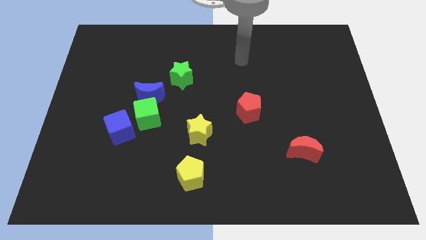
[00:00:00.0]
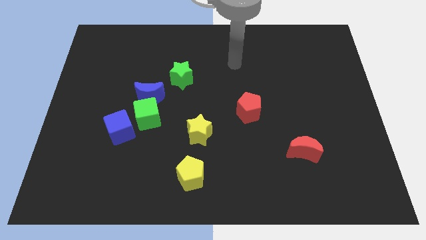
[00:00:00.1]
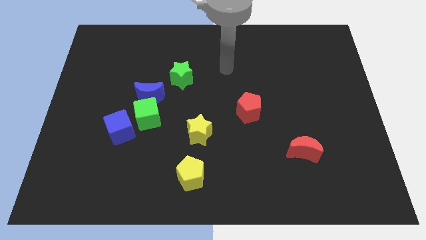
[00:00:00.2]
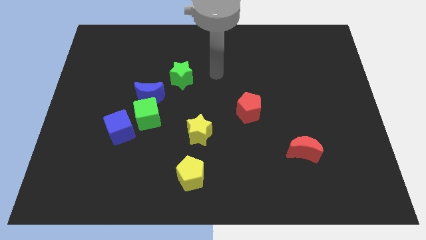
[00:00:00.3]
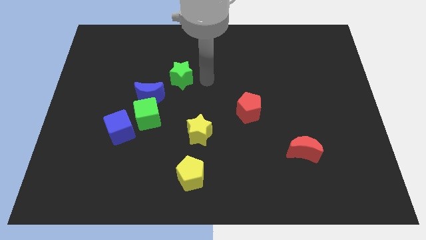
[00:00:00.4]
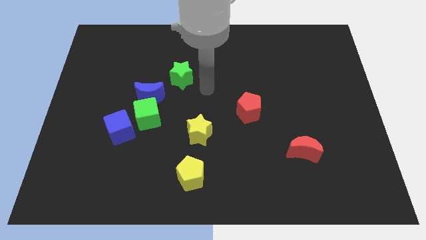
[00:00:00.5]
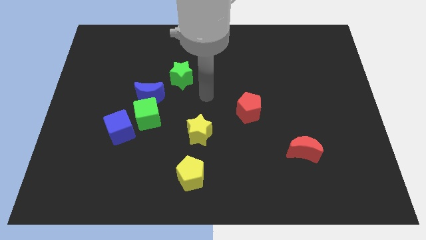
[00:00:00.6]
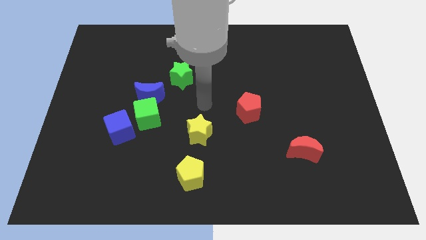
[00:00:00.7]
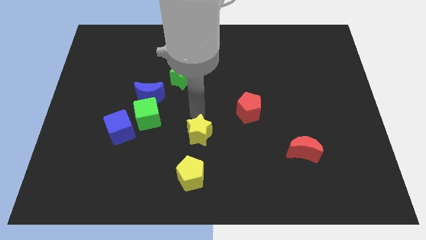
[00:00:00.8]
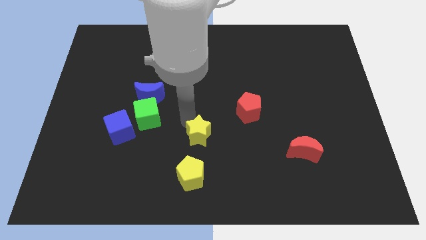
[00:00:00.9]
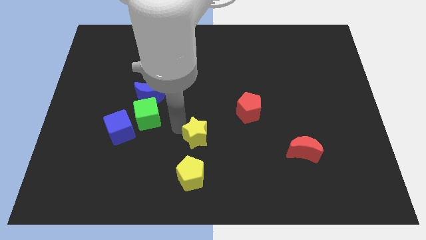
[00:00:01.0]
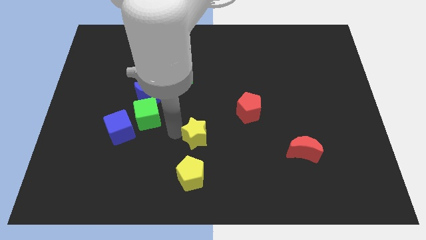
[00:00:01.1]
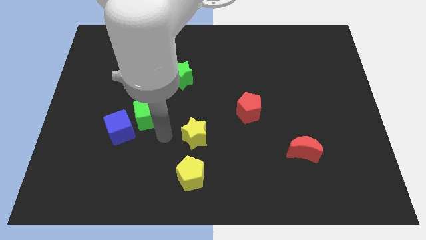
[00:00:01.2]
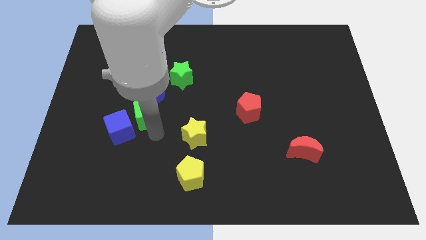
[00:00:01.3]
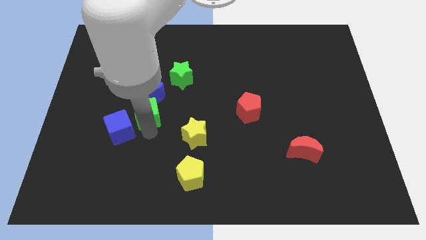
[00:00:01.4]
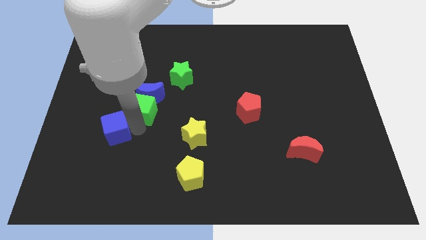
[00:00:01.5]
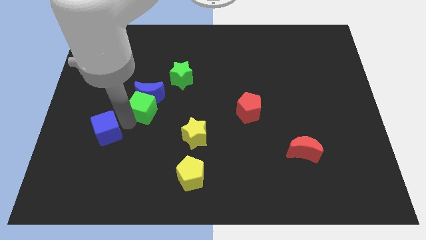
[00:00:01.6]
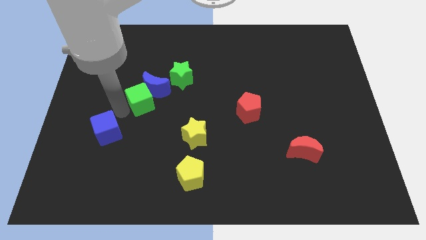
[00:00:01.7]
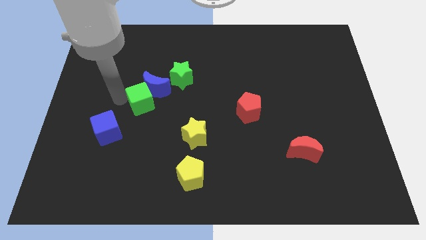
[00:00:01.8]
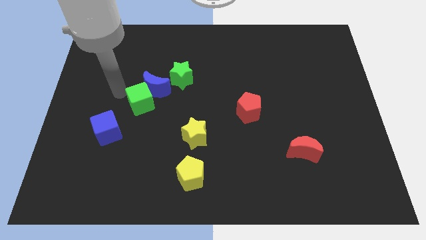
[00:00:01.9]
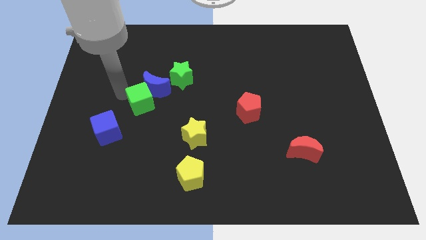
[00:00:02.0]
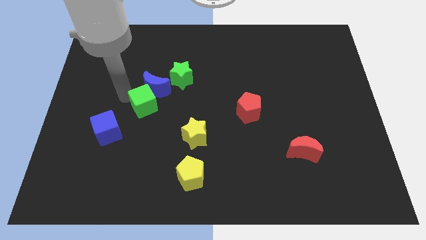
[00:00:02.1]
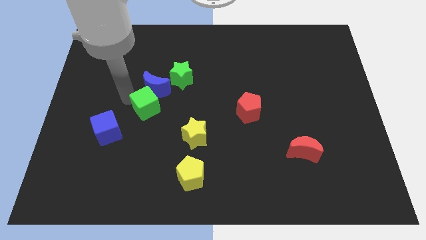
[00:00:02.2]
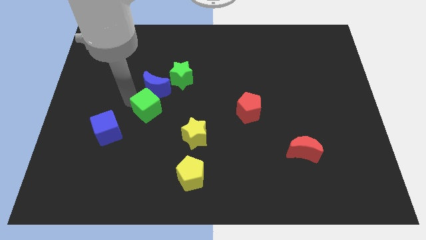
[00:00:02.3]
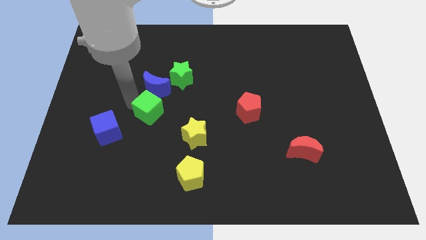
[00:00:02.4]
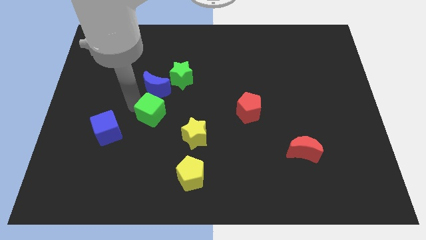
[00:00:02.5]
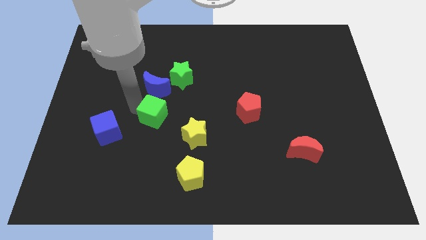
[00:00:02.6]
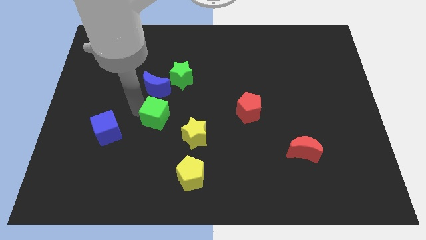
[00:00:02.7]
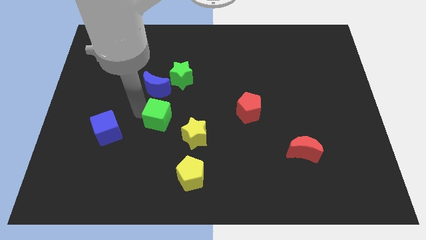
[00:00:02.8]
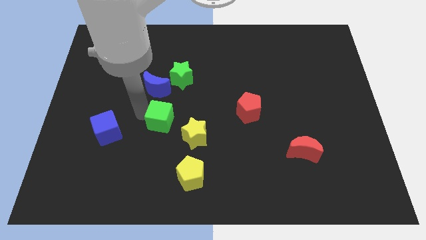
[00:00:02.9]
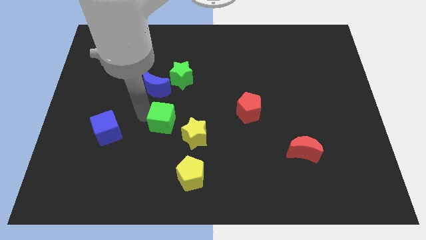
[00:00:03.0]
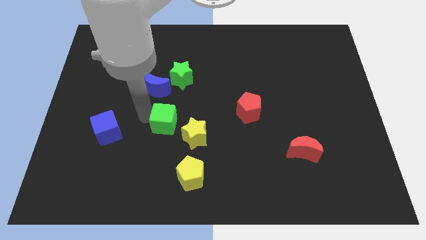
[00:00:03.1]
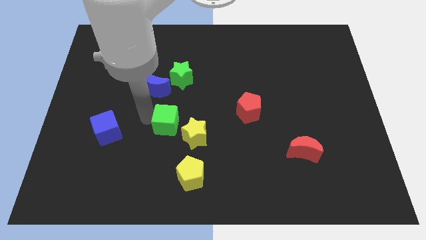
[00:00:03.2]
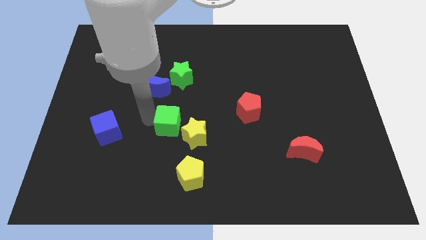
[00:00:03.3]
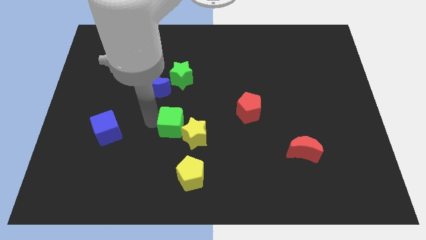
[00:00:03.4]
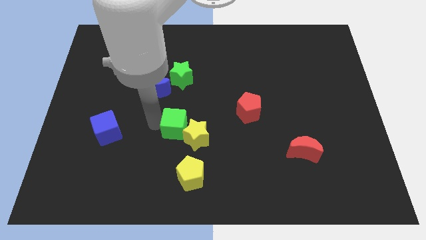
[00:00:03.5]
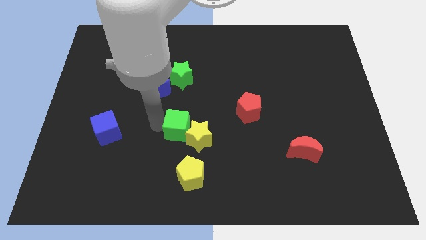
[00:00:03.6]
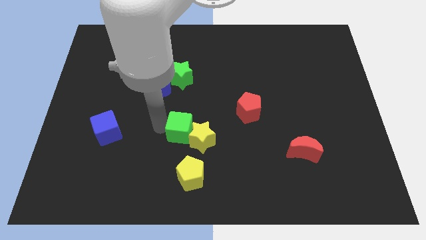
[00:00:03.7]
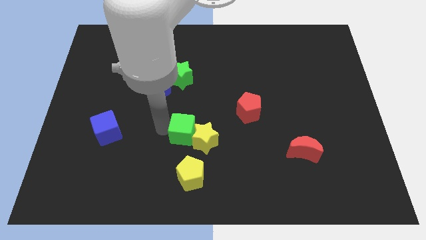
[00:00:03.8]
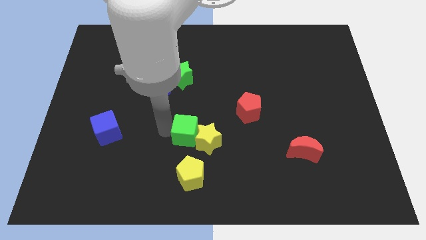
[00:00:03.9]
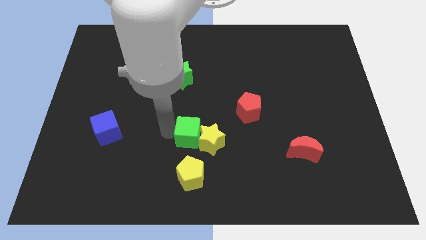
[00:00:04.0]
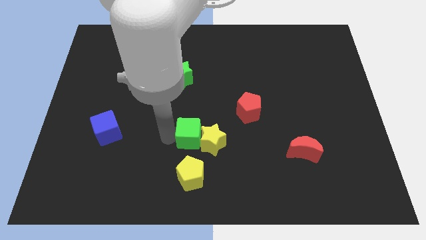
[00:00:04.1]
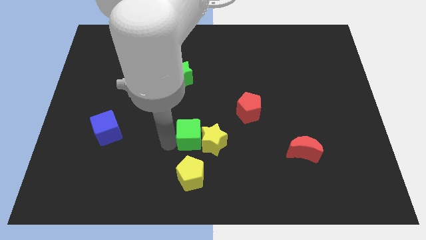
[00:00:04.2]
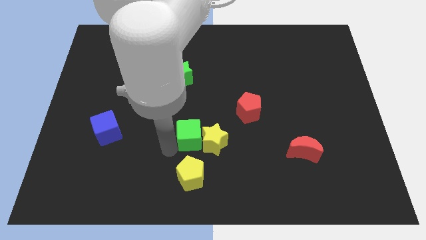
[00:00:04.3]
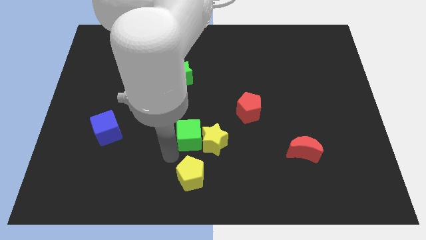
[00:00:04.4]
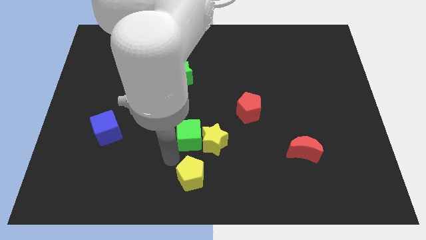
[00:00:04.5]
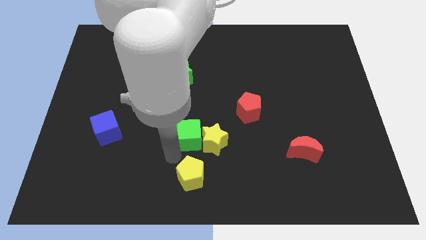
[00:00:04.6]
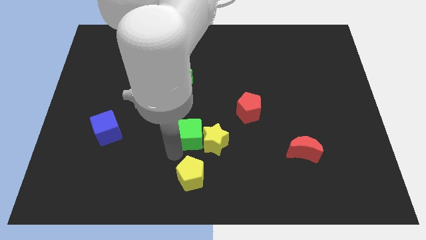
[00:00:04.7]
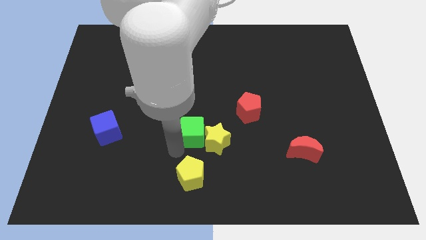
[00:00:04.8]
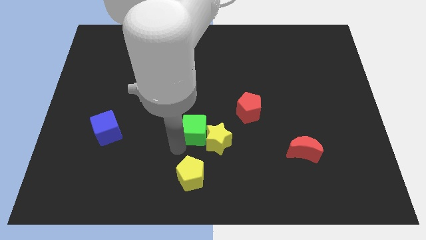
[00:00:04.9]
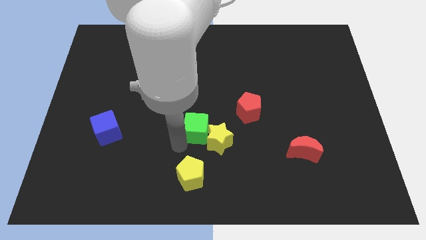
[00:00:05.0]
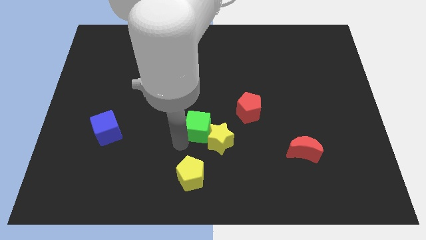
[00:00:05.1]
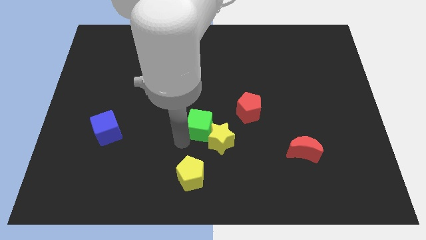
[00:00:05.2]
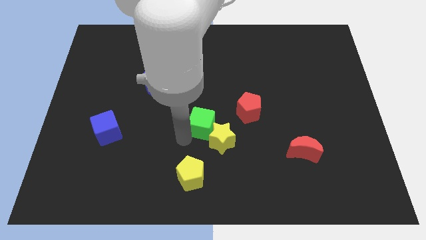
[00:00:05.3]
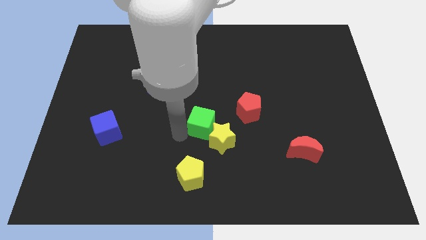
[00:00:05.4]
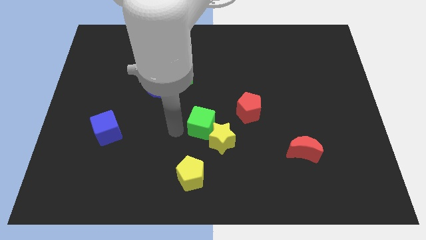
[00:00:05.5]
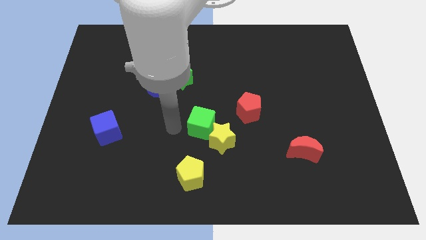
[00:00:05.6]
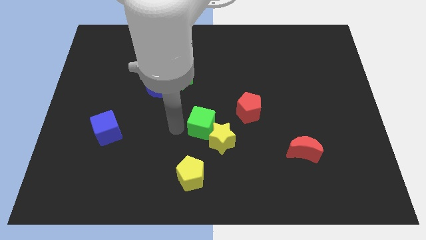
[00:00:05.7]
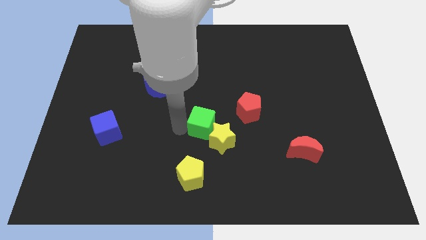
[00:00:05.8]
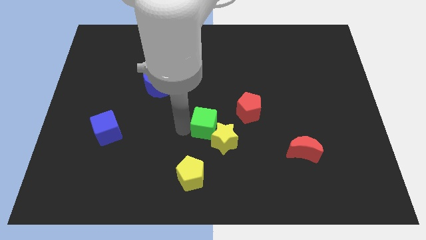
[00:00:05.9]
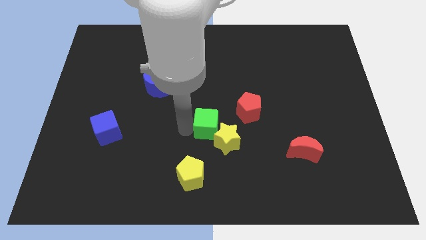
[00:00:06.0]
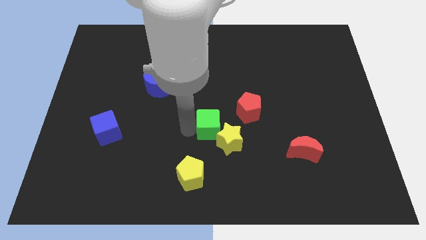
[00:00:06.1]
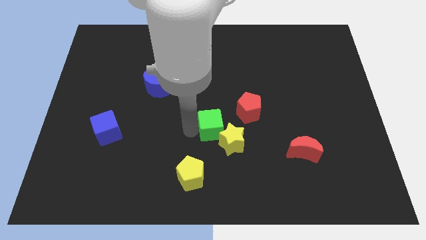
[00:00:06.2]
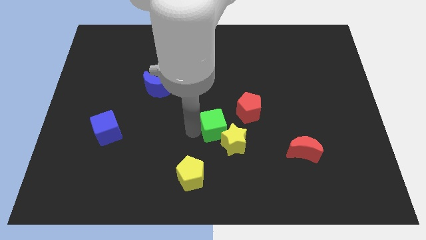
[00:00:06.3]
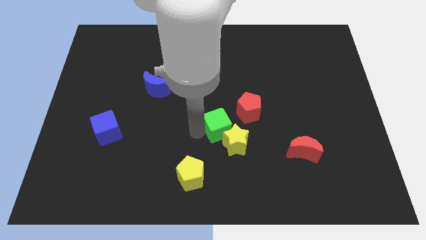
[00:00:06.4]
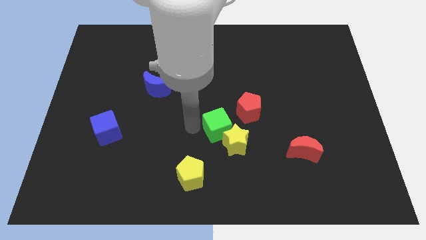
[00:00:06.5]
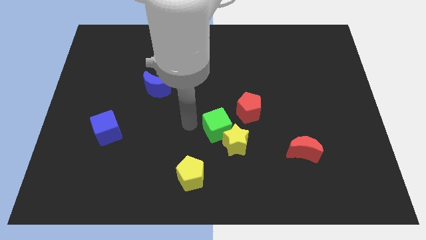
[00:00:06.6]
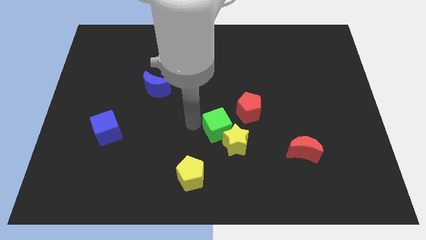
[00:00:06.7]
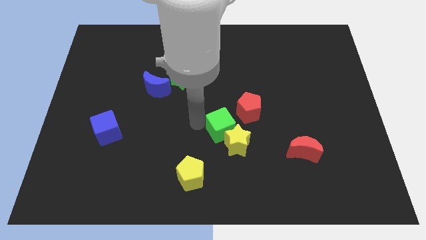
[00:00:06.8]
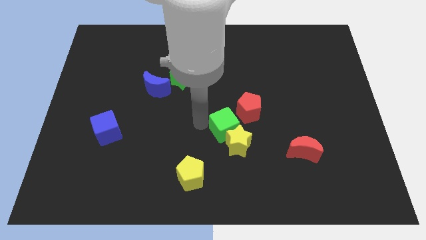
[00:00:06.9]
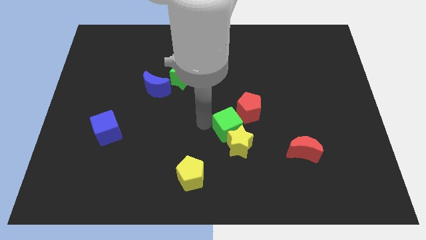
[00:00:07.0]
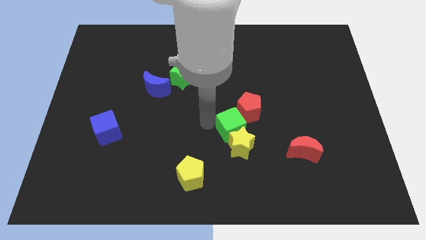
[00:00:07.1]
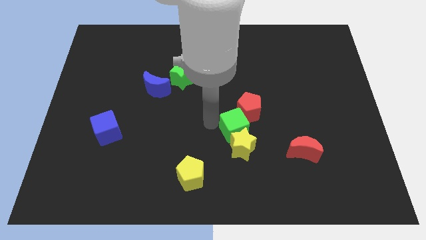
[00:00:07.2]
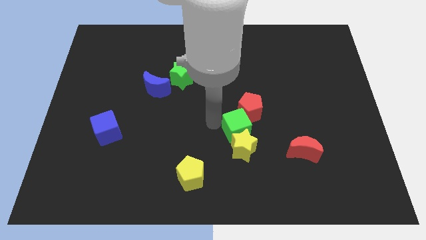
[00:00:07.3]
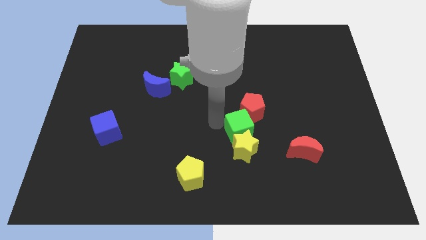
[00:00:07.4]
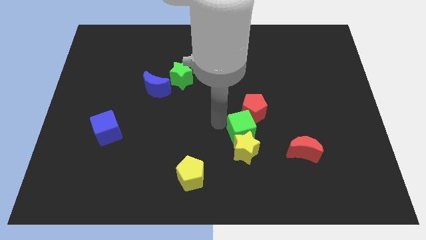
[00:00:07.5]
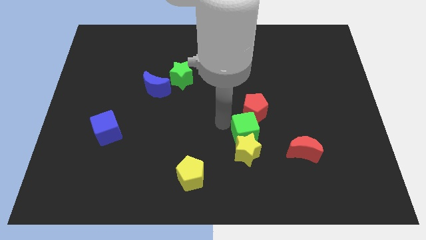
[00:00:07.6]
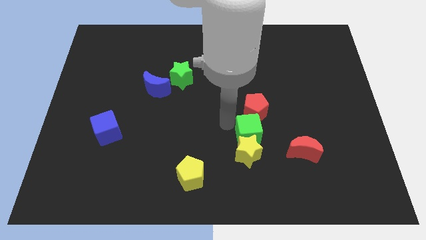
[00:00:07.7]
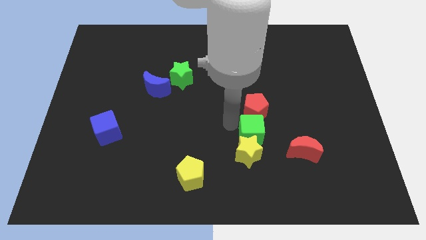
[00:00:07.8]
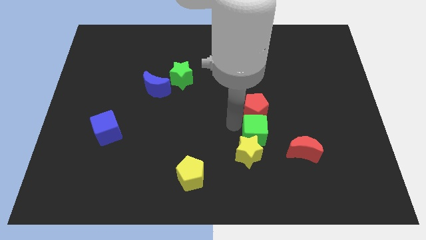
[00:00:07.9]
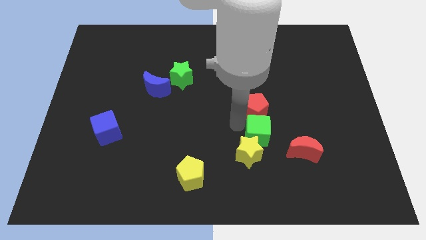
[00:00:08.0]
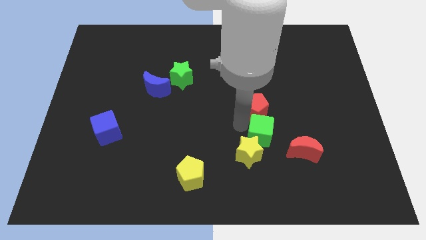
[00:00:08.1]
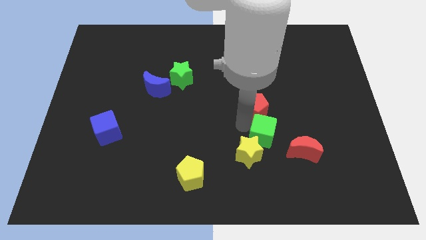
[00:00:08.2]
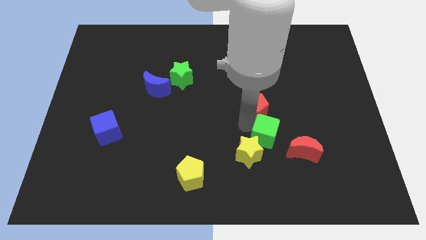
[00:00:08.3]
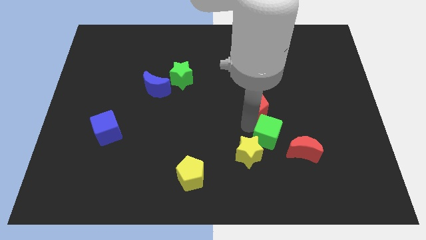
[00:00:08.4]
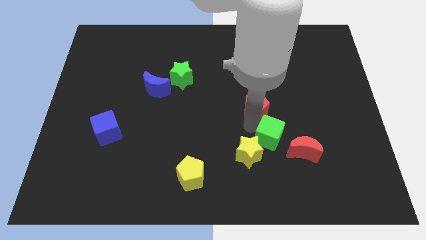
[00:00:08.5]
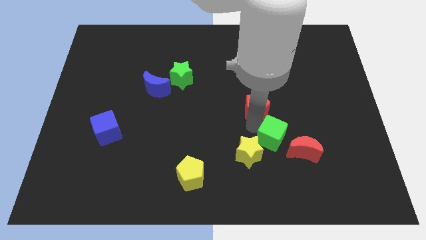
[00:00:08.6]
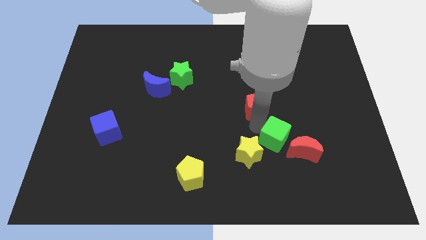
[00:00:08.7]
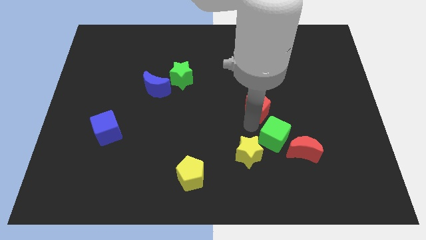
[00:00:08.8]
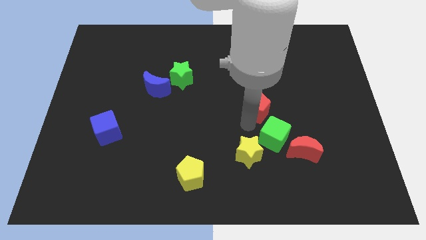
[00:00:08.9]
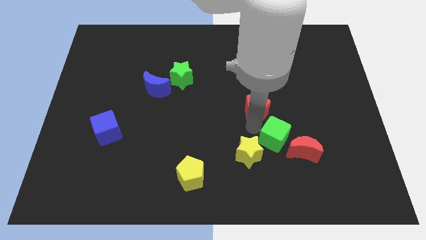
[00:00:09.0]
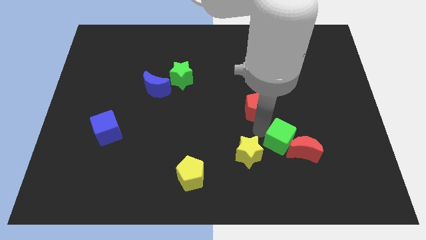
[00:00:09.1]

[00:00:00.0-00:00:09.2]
move the green cube to the red moon
